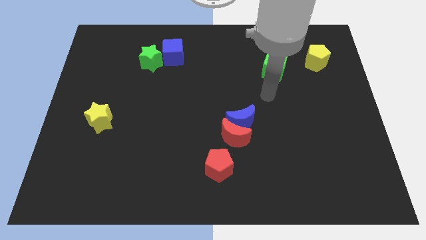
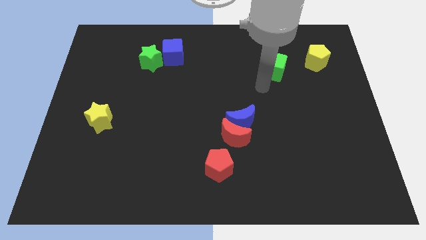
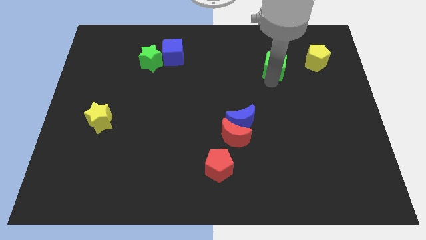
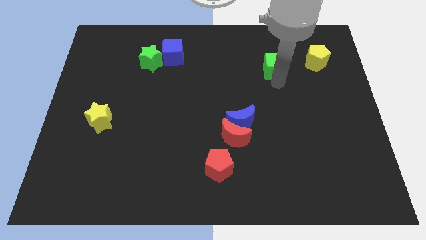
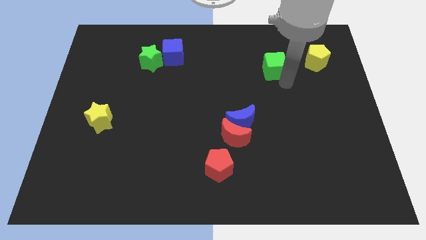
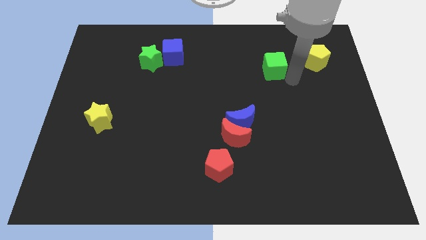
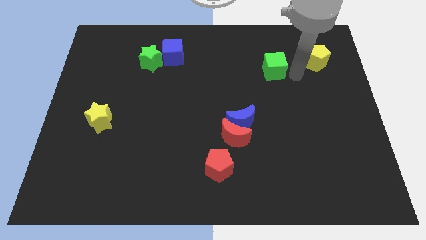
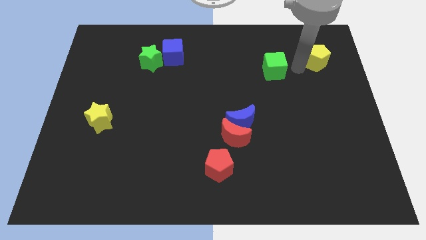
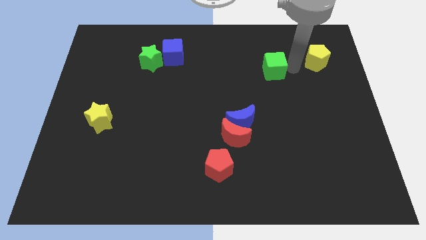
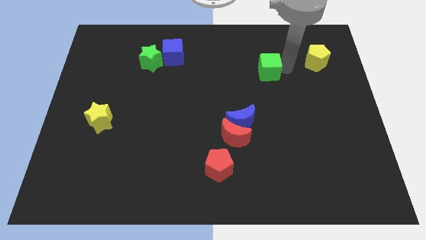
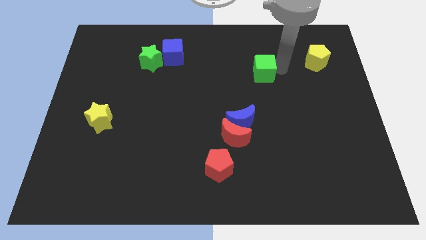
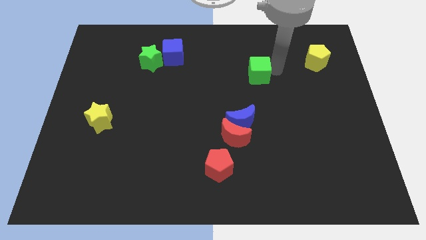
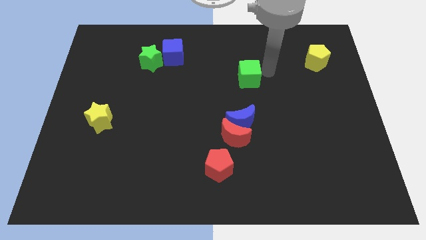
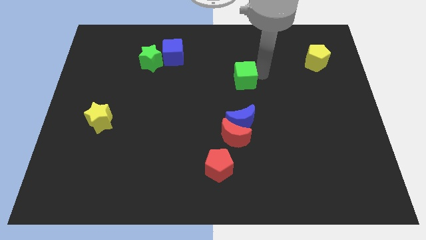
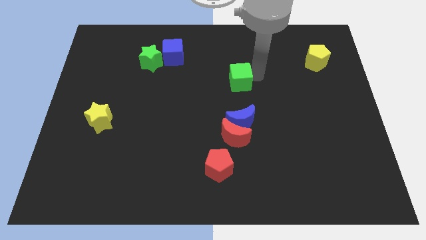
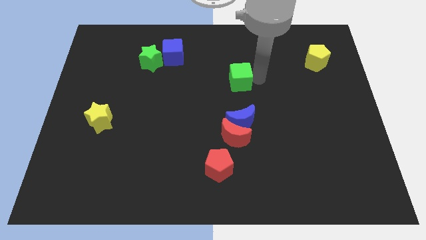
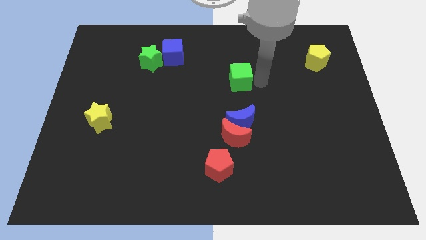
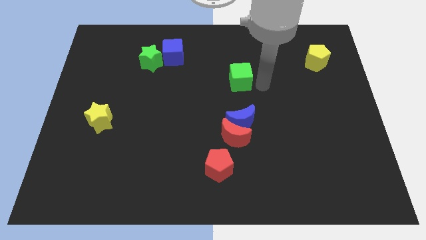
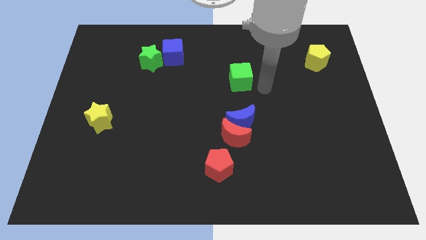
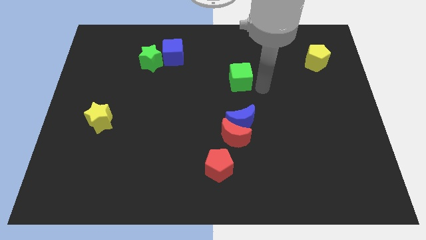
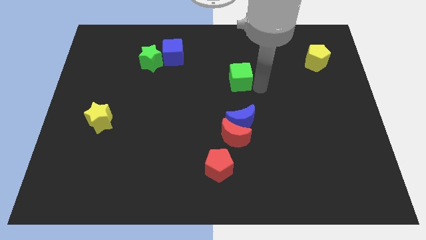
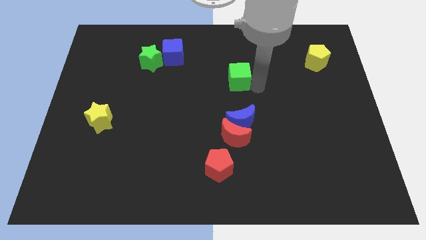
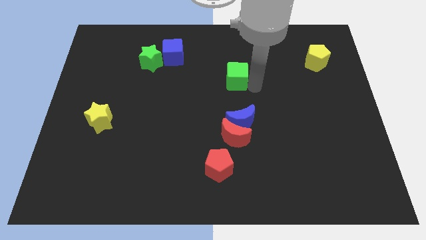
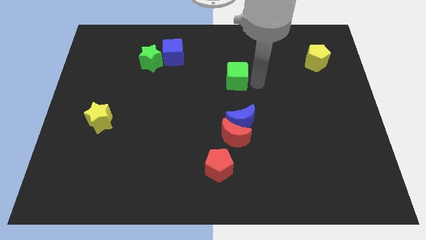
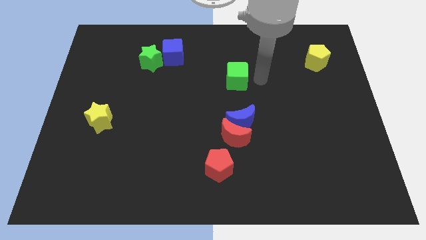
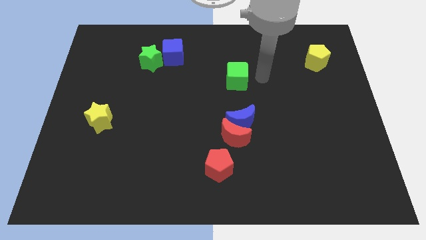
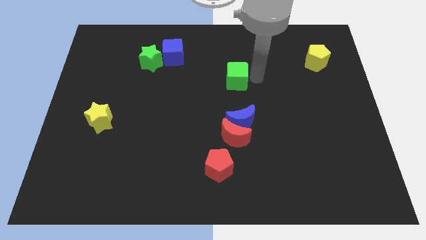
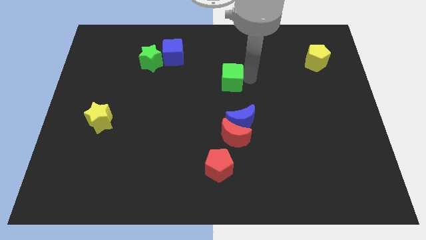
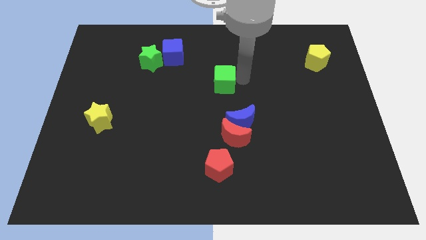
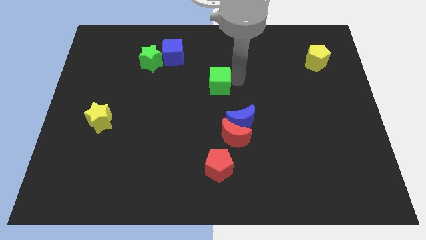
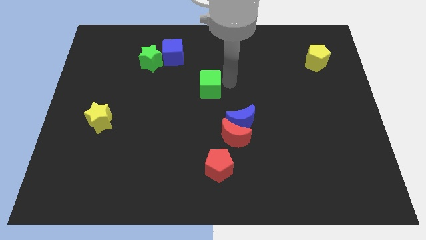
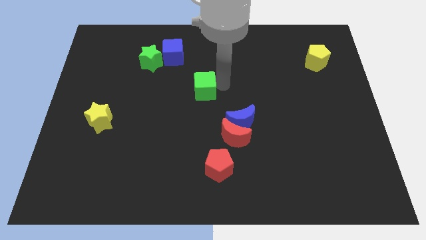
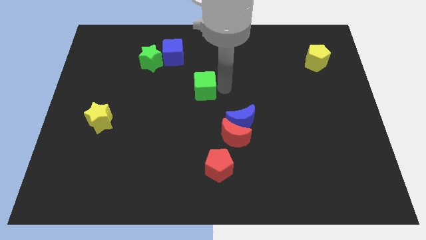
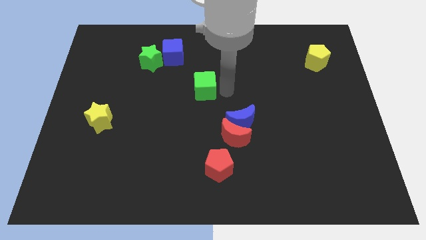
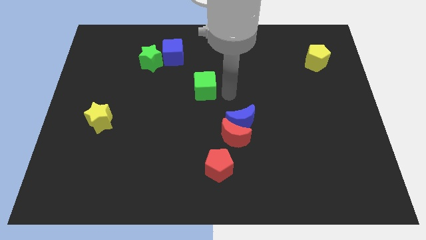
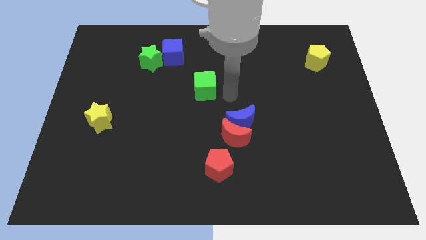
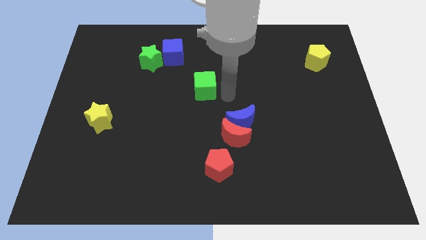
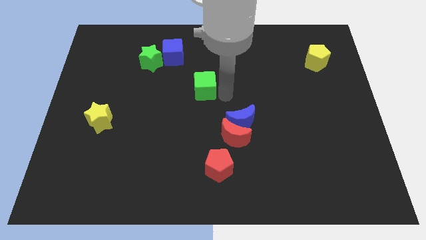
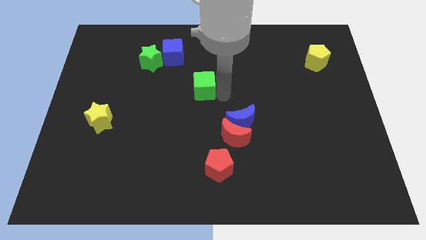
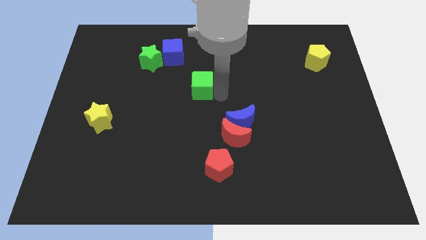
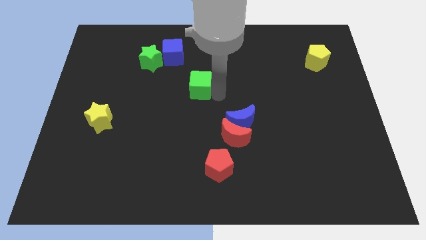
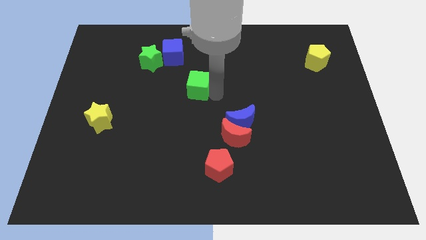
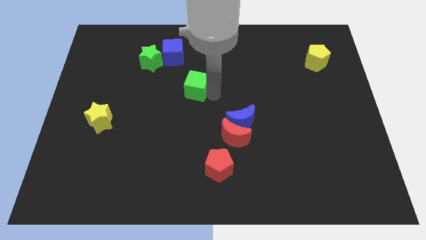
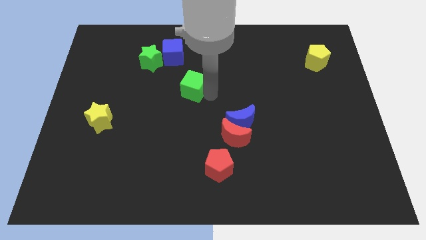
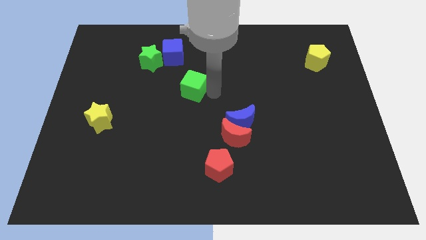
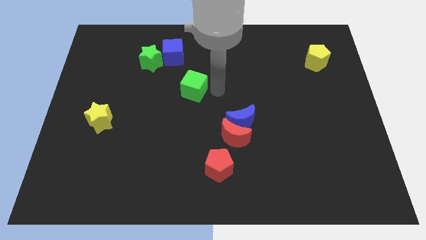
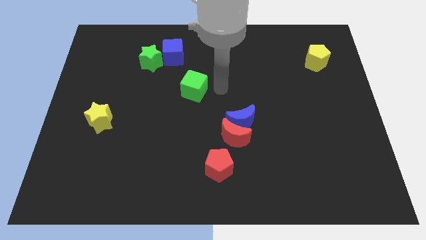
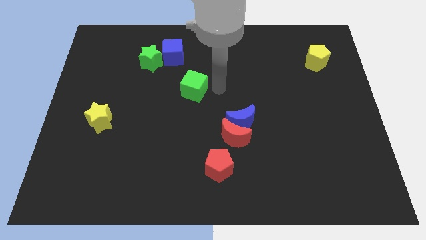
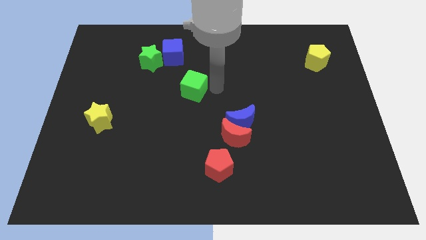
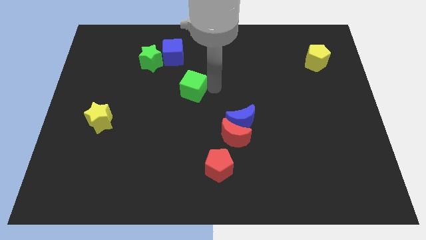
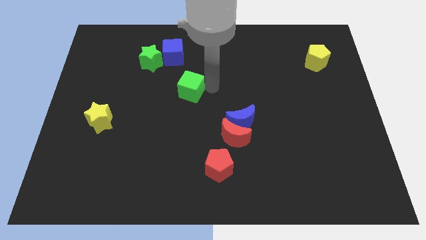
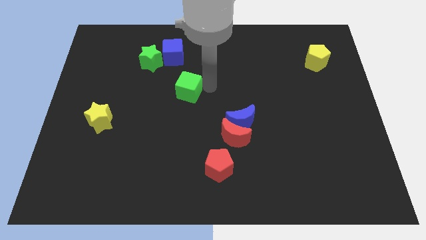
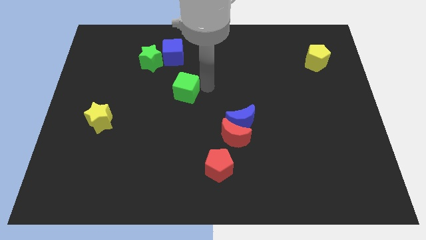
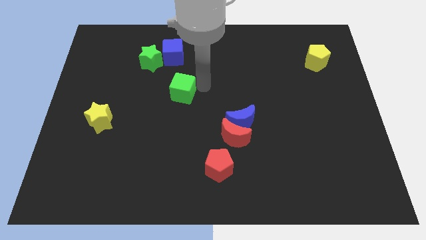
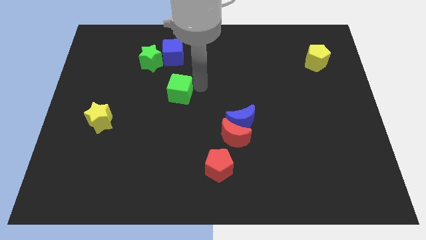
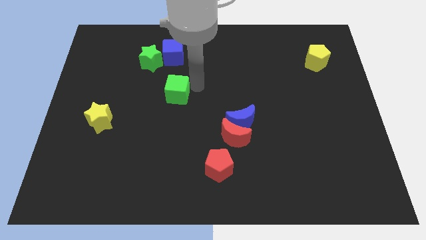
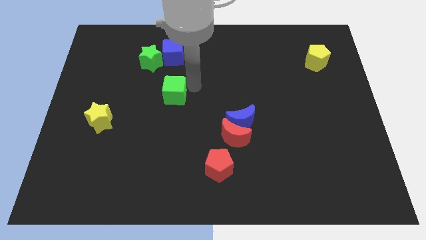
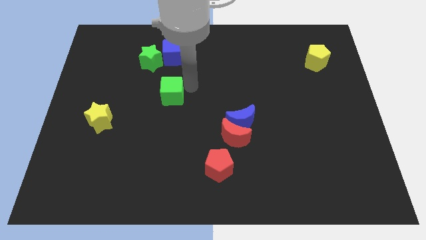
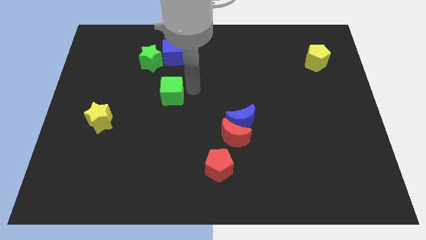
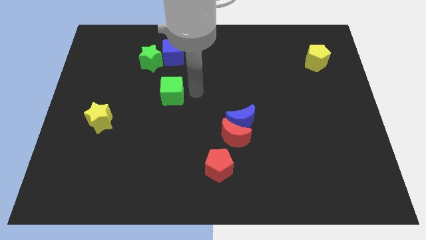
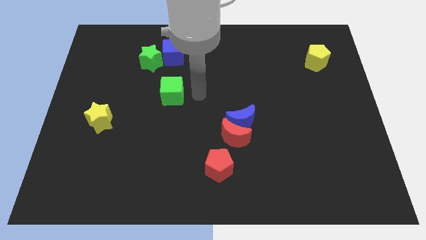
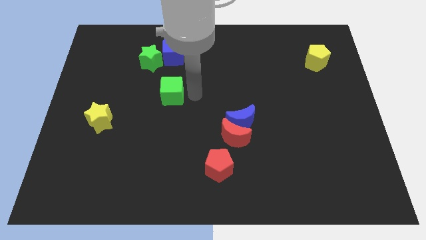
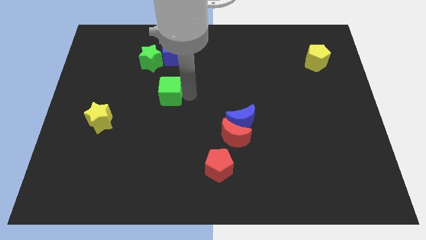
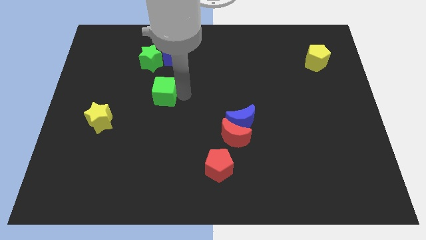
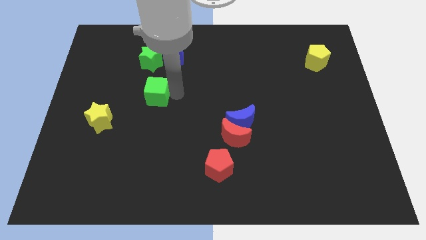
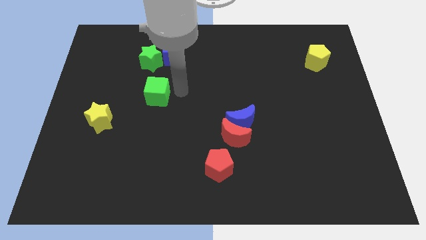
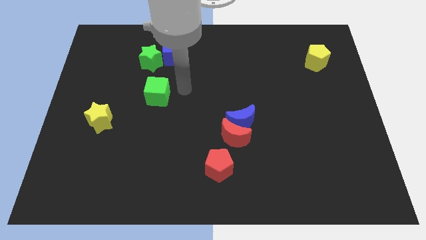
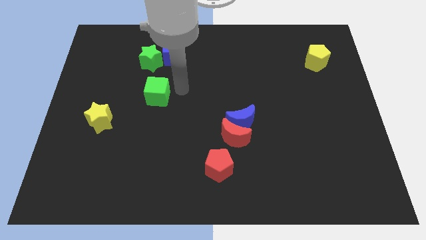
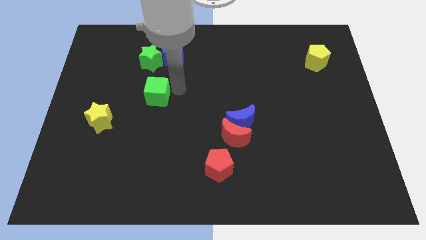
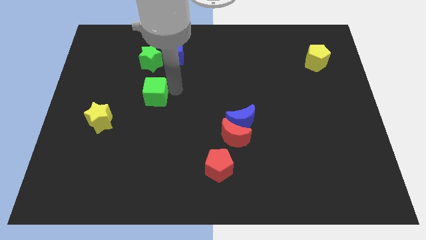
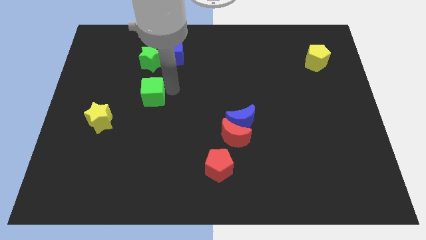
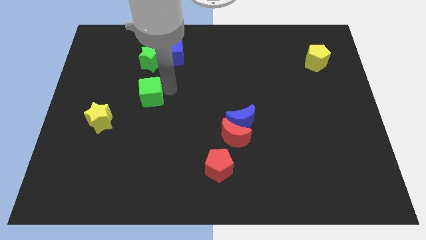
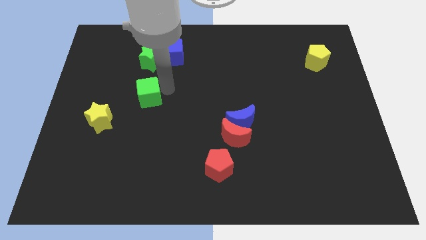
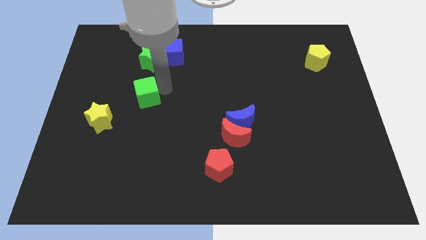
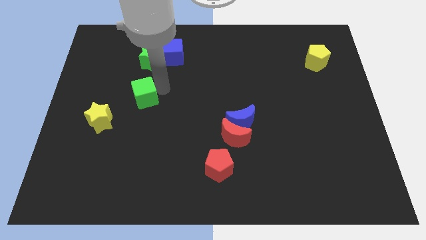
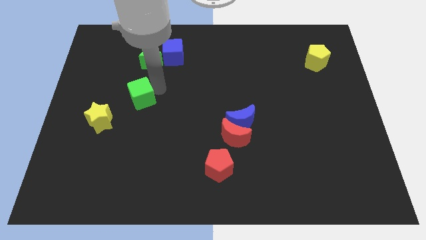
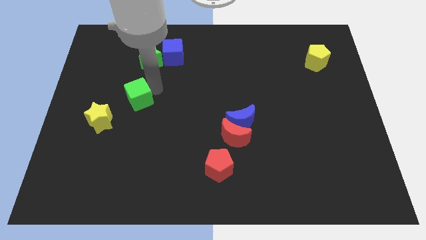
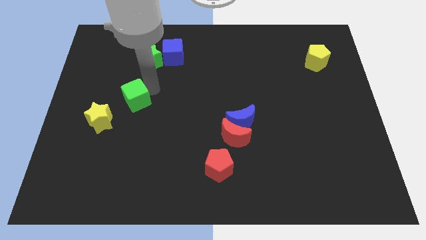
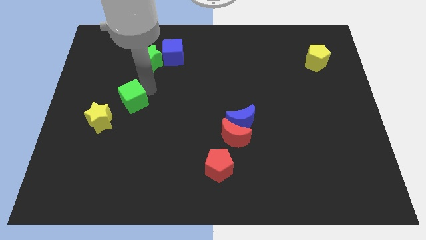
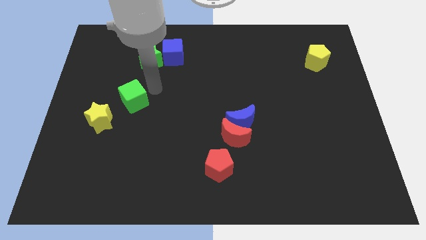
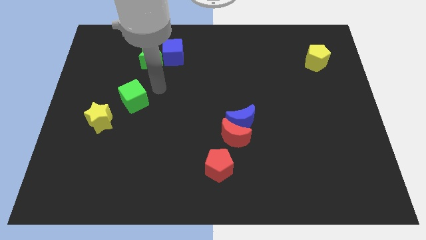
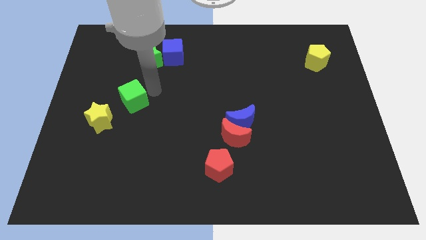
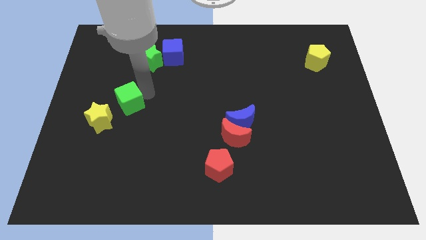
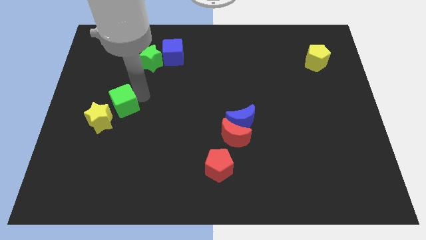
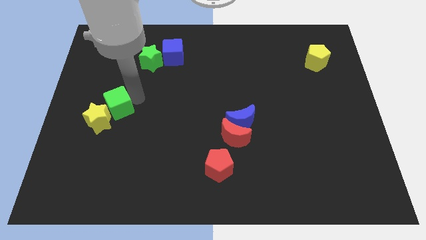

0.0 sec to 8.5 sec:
move the green cube towards the yellow star
